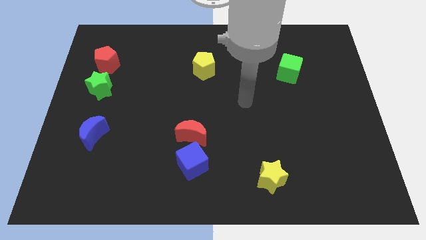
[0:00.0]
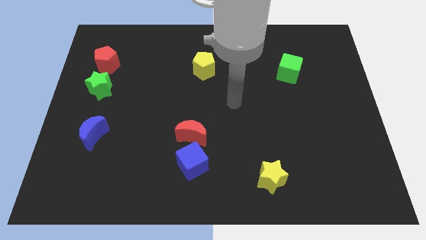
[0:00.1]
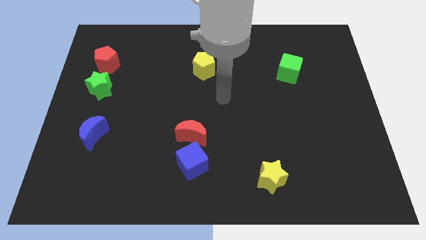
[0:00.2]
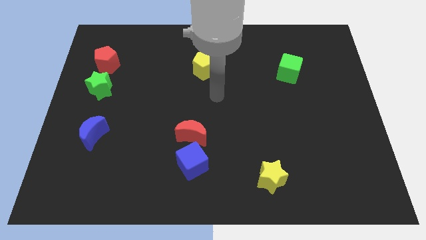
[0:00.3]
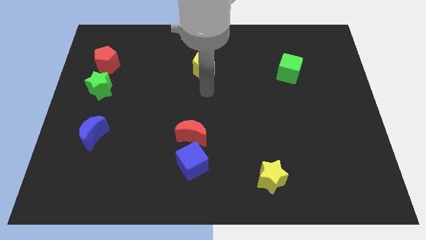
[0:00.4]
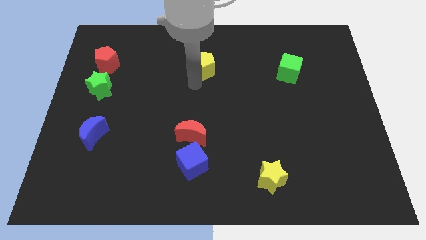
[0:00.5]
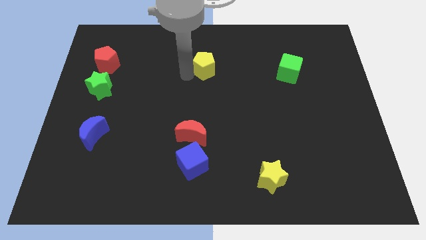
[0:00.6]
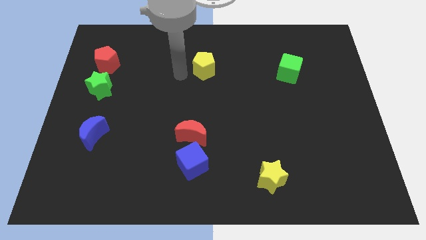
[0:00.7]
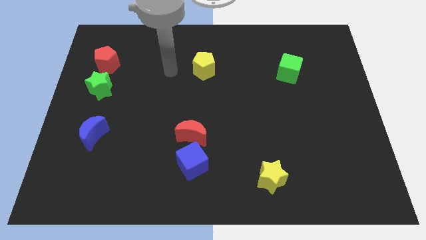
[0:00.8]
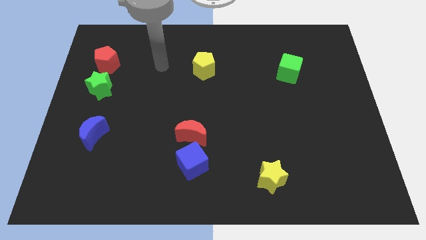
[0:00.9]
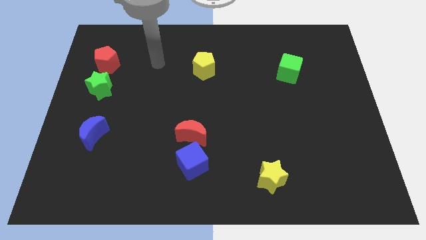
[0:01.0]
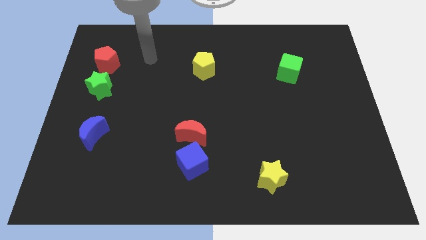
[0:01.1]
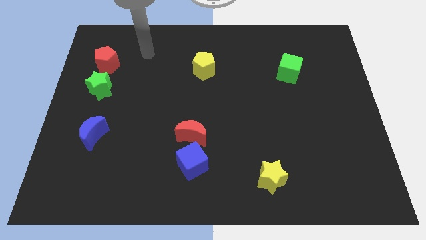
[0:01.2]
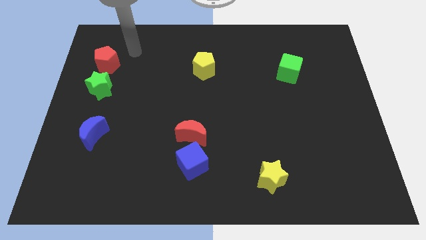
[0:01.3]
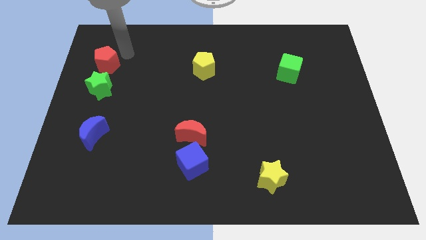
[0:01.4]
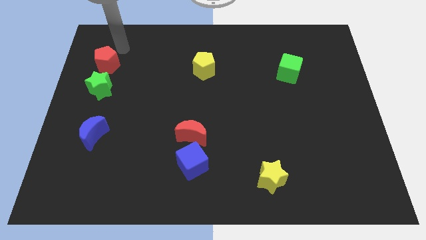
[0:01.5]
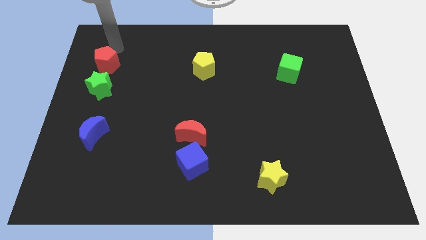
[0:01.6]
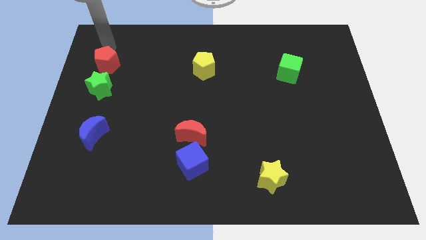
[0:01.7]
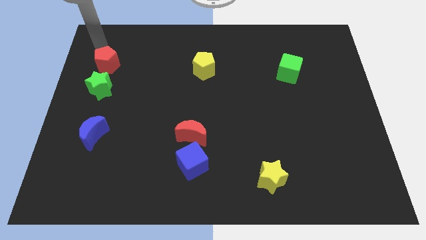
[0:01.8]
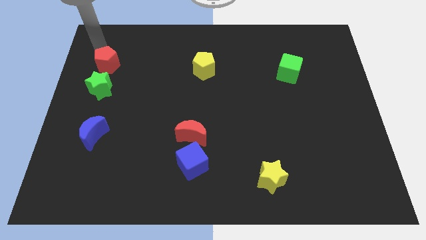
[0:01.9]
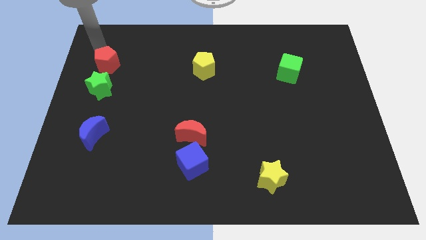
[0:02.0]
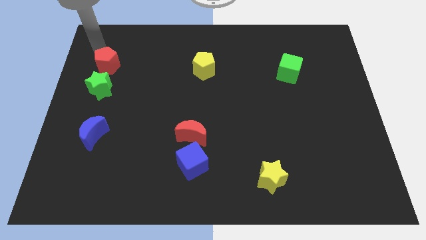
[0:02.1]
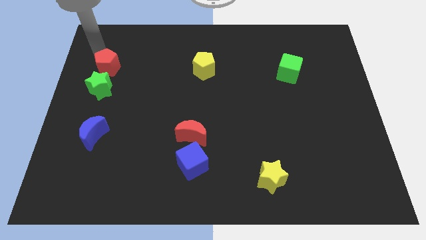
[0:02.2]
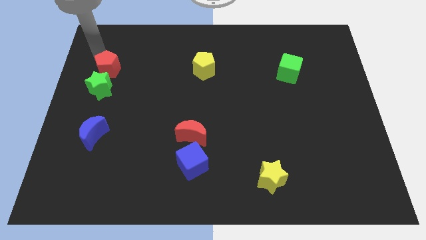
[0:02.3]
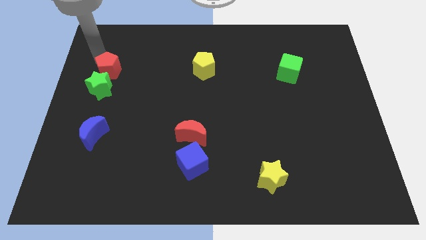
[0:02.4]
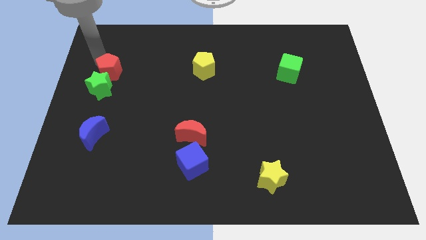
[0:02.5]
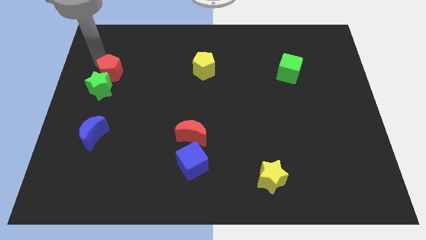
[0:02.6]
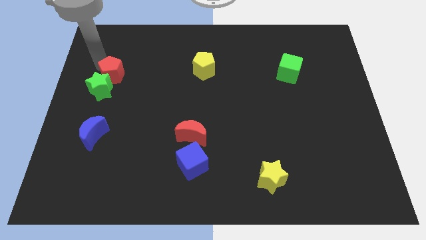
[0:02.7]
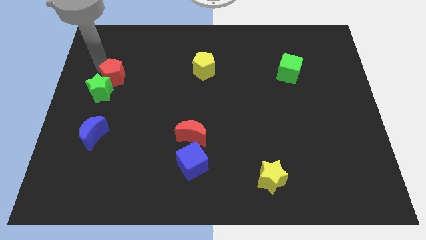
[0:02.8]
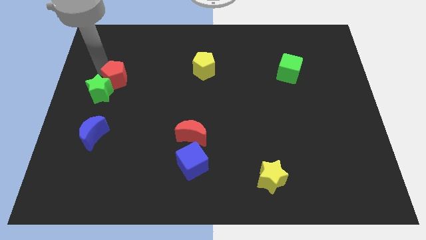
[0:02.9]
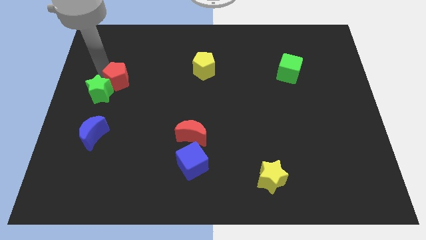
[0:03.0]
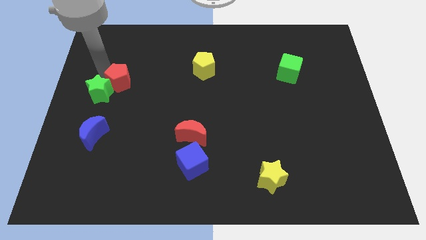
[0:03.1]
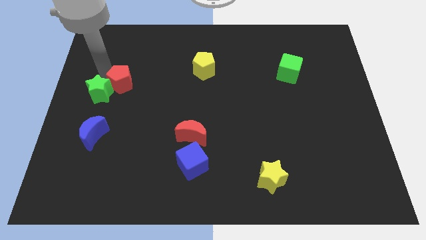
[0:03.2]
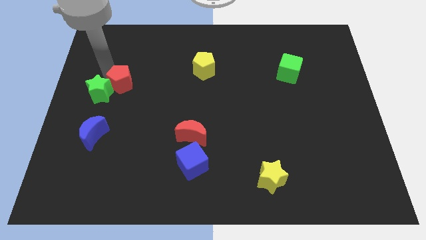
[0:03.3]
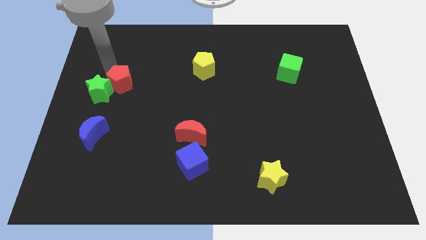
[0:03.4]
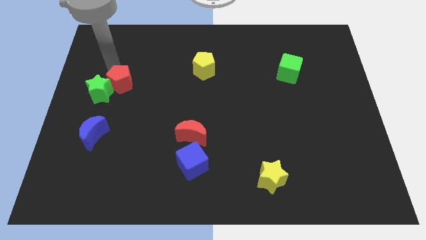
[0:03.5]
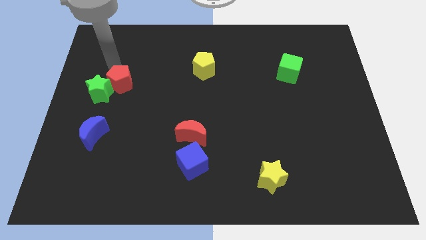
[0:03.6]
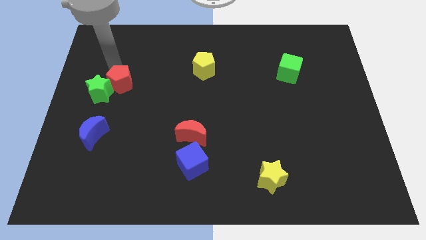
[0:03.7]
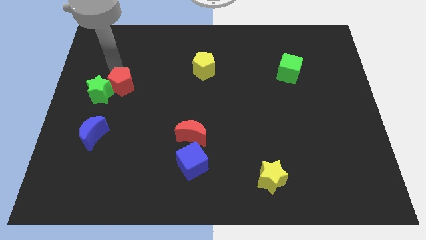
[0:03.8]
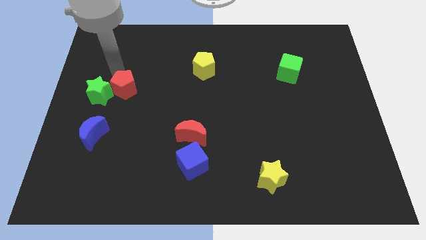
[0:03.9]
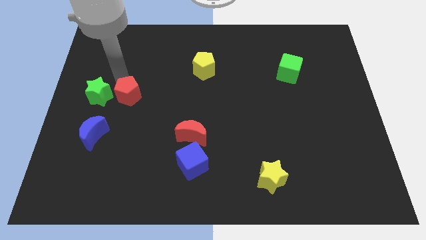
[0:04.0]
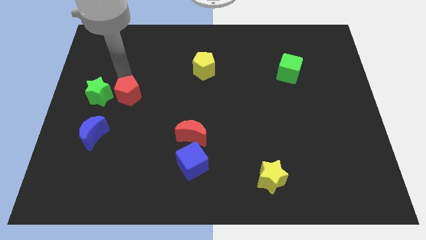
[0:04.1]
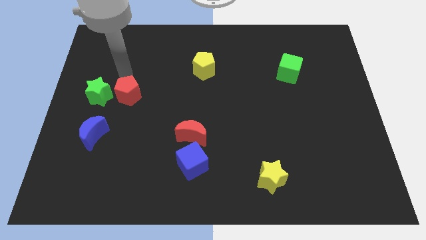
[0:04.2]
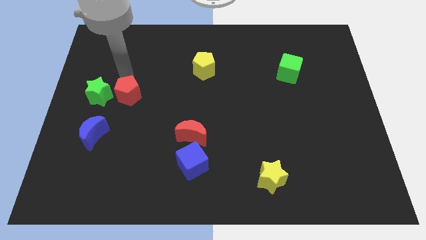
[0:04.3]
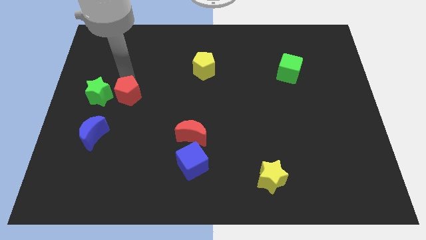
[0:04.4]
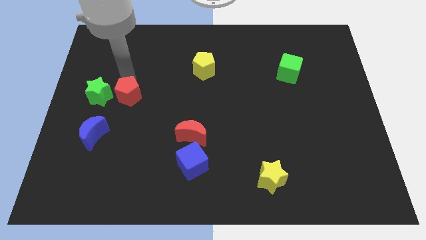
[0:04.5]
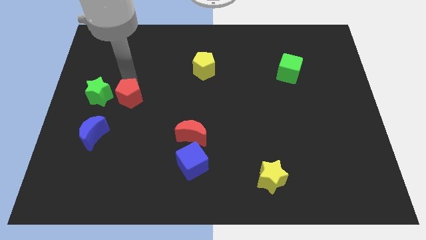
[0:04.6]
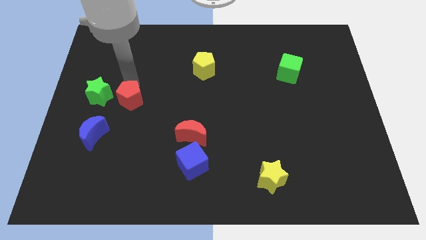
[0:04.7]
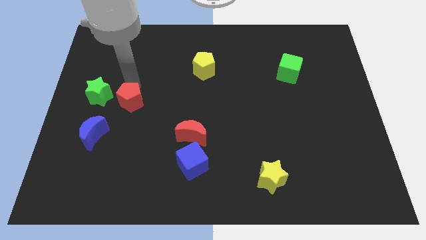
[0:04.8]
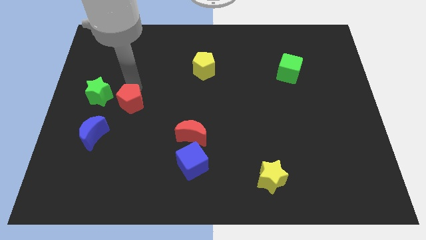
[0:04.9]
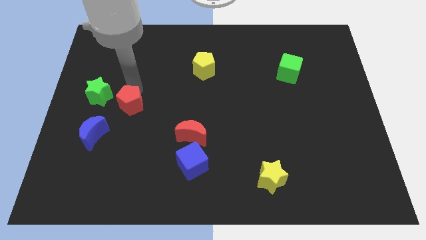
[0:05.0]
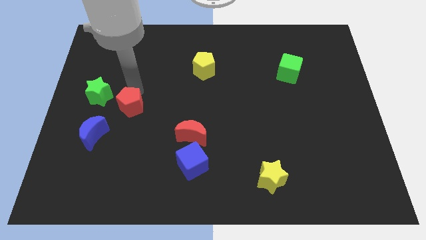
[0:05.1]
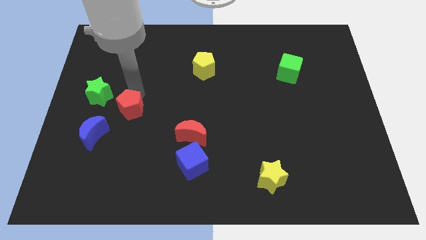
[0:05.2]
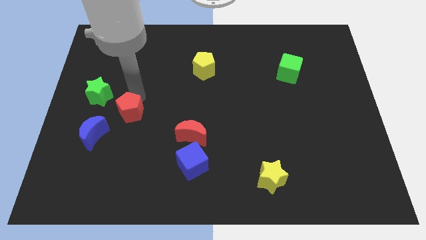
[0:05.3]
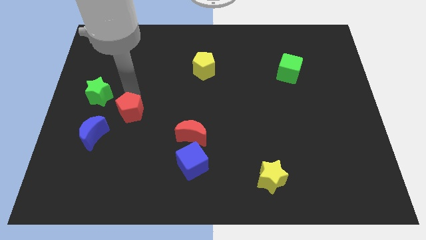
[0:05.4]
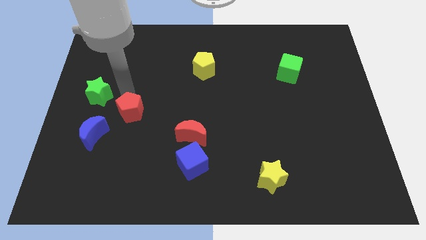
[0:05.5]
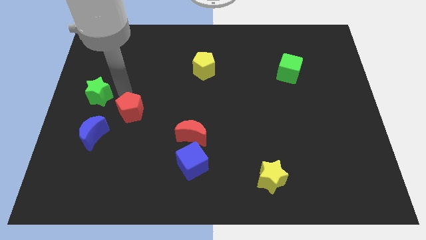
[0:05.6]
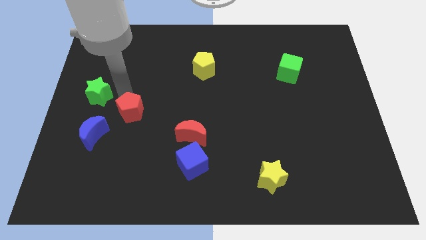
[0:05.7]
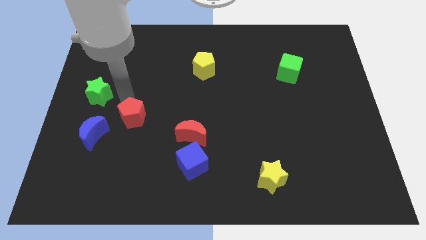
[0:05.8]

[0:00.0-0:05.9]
push the red pentagon to the right side of the blue moon
